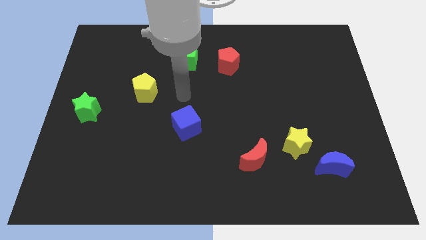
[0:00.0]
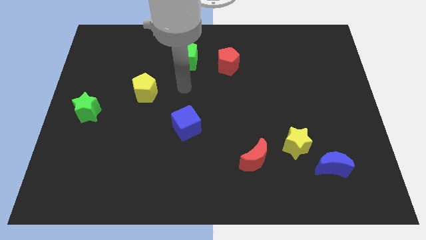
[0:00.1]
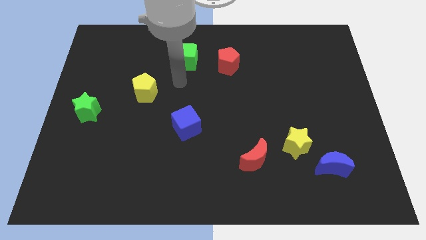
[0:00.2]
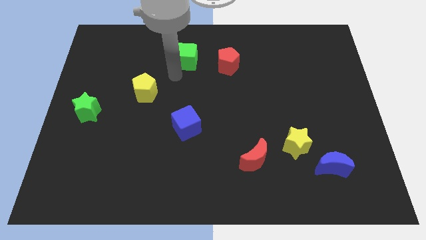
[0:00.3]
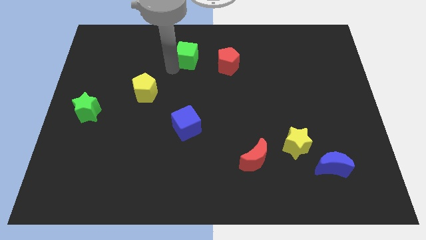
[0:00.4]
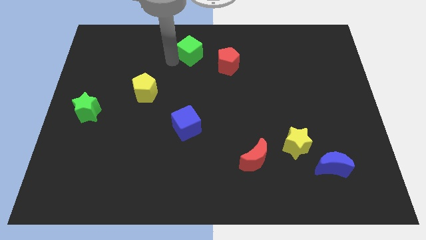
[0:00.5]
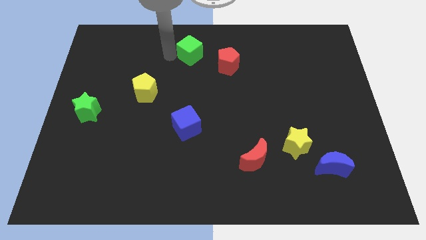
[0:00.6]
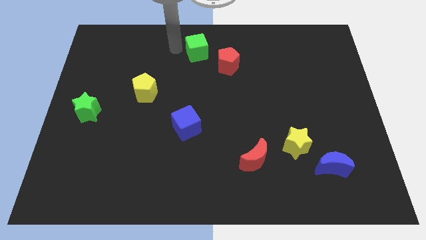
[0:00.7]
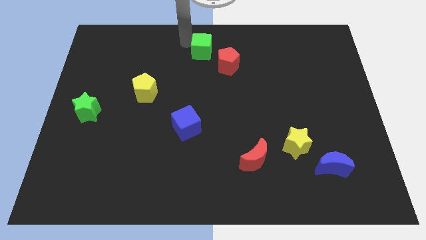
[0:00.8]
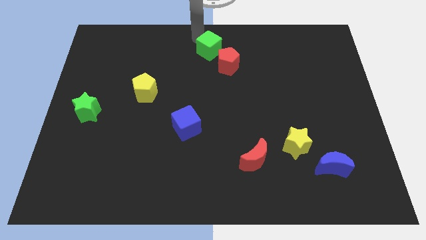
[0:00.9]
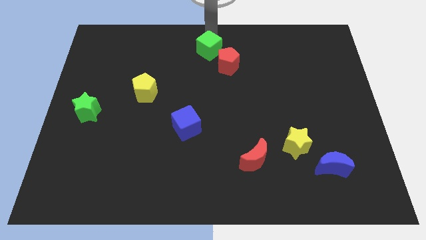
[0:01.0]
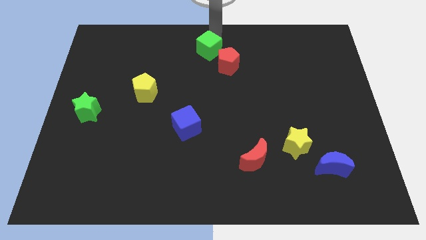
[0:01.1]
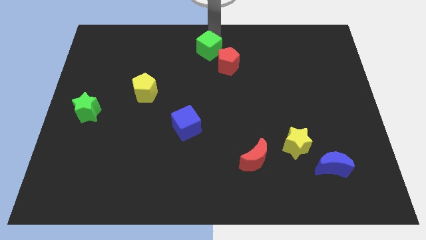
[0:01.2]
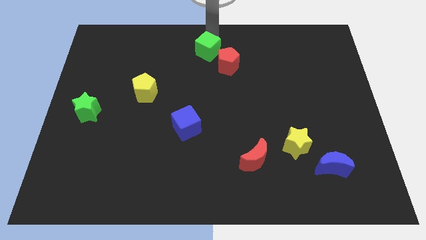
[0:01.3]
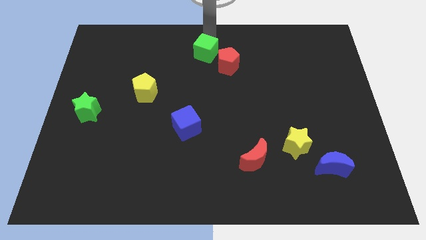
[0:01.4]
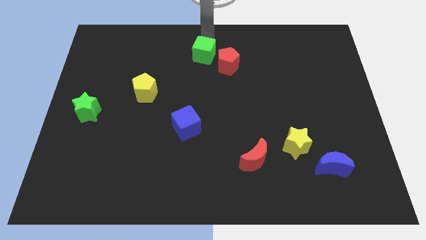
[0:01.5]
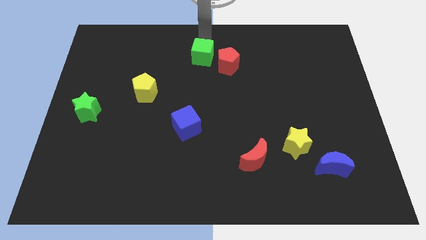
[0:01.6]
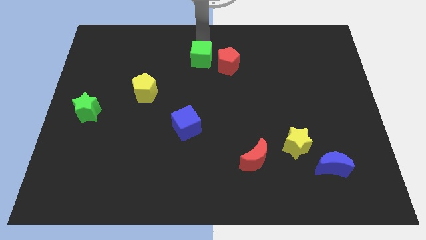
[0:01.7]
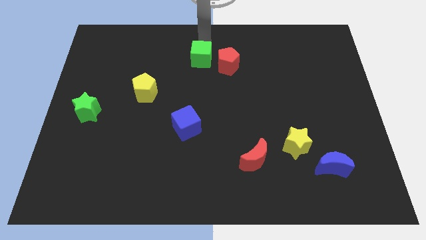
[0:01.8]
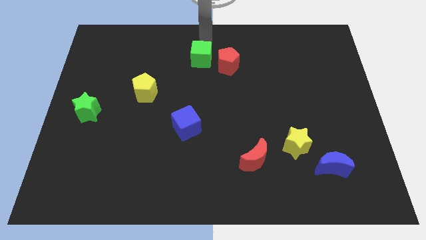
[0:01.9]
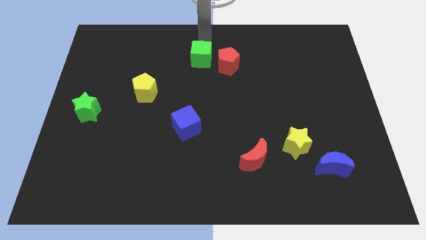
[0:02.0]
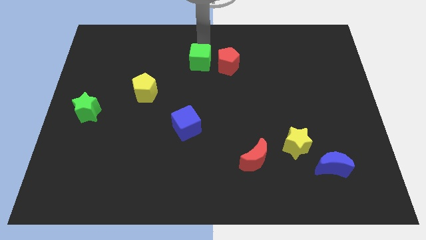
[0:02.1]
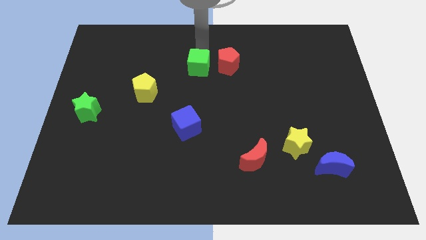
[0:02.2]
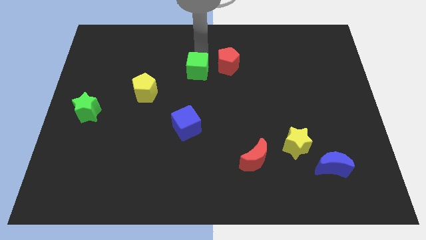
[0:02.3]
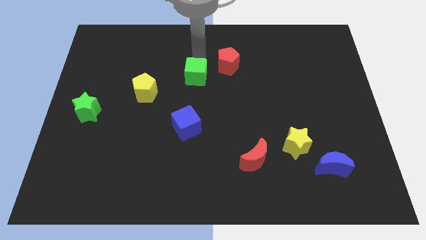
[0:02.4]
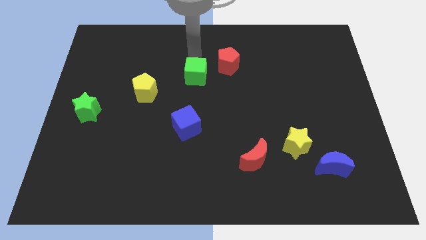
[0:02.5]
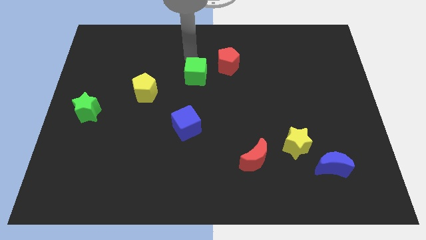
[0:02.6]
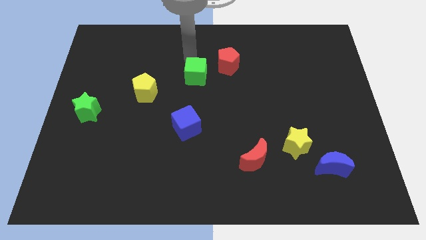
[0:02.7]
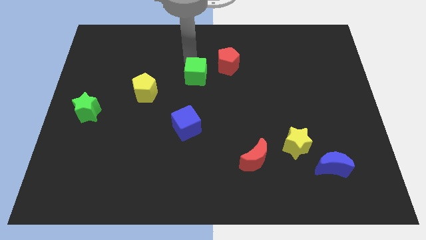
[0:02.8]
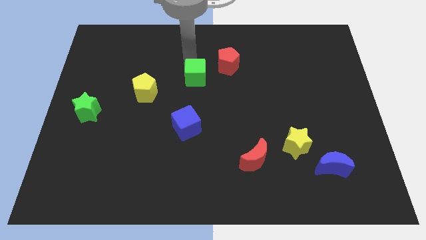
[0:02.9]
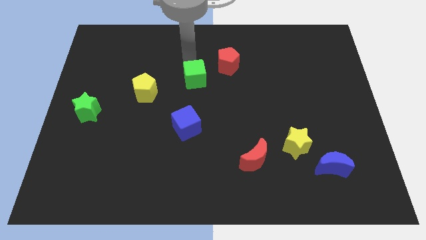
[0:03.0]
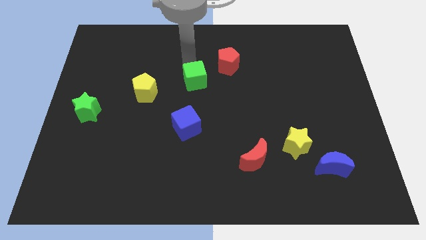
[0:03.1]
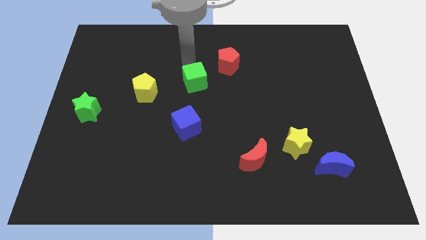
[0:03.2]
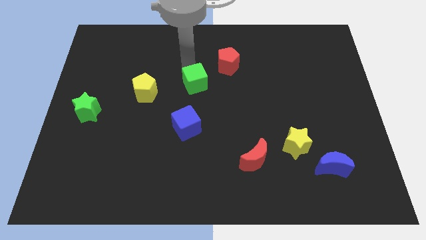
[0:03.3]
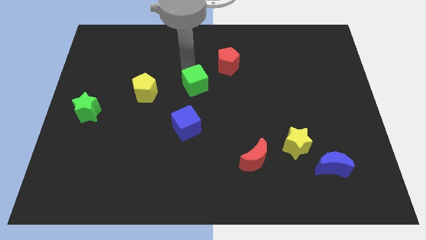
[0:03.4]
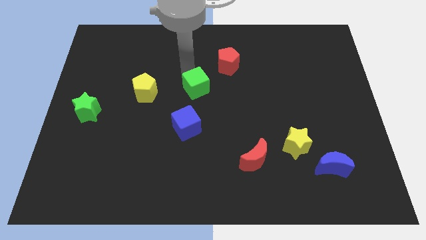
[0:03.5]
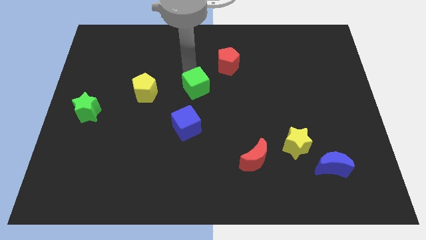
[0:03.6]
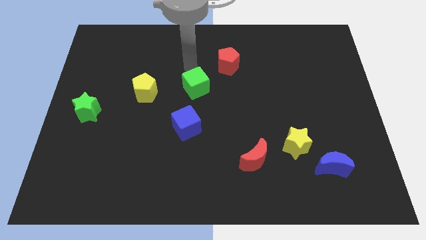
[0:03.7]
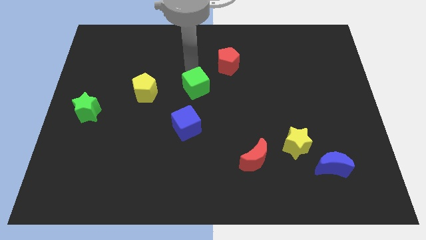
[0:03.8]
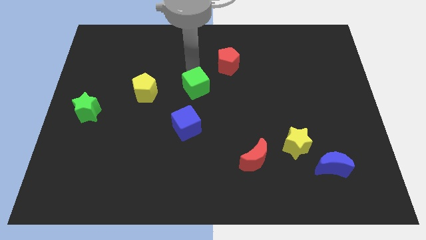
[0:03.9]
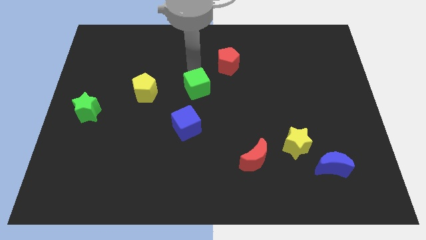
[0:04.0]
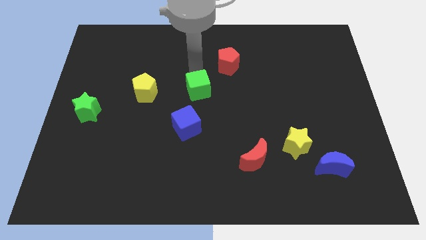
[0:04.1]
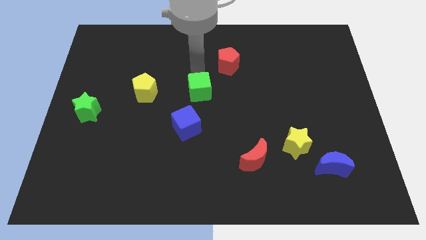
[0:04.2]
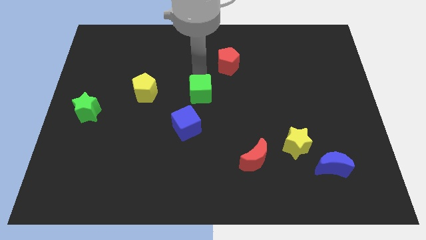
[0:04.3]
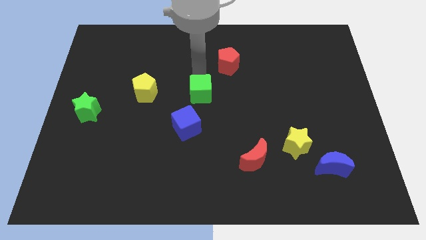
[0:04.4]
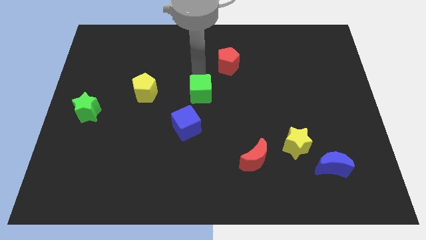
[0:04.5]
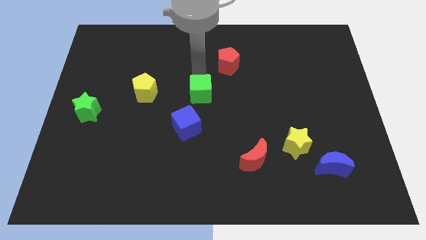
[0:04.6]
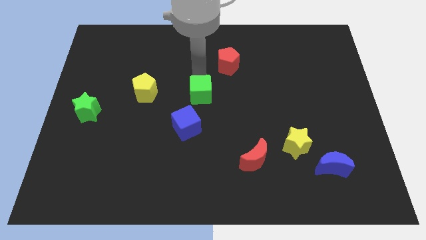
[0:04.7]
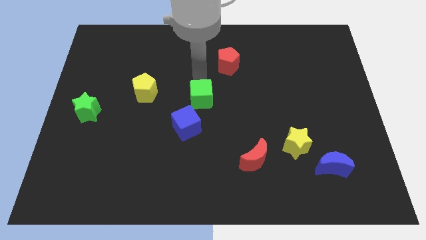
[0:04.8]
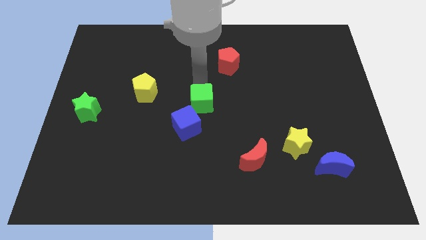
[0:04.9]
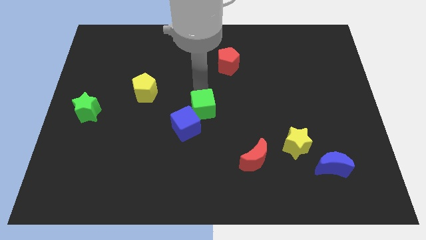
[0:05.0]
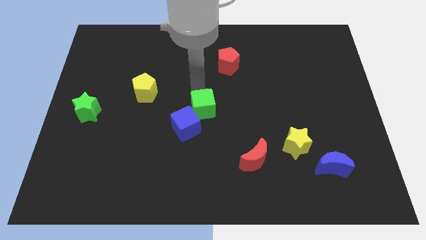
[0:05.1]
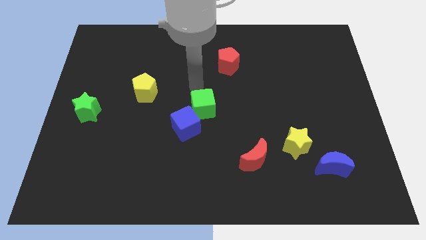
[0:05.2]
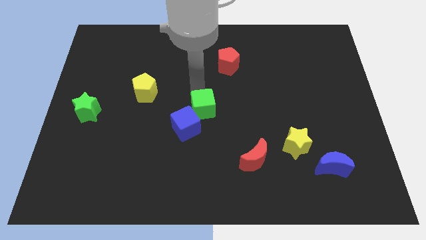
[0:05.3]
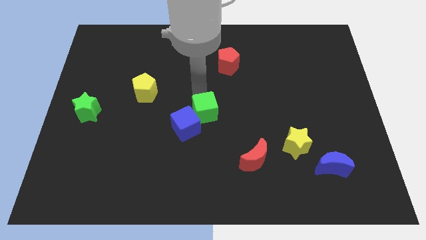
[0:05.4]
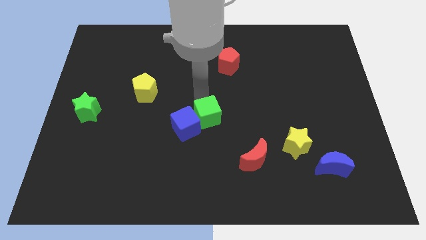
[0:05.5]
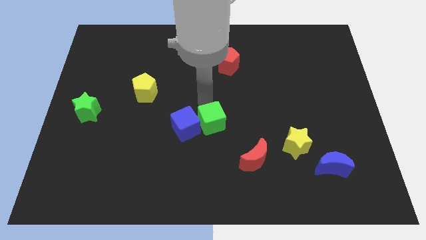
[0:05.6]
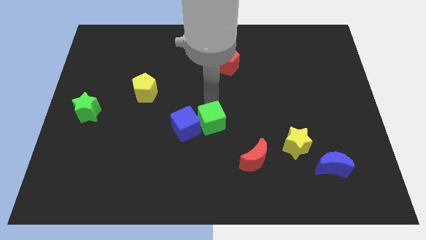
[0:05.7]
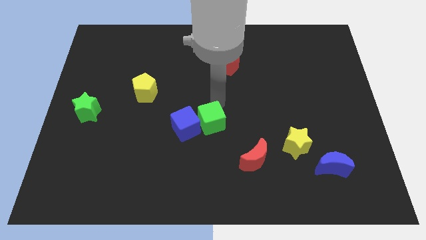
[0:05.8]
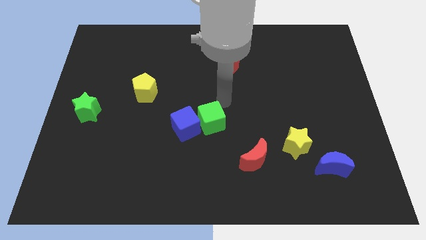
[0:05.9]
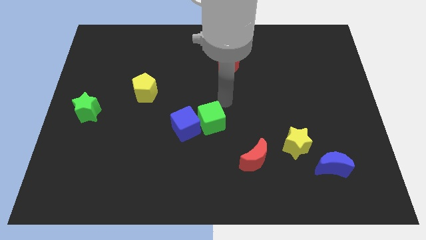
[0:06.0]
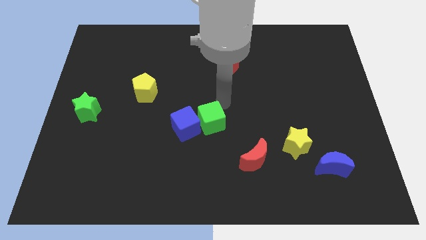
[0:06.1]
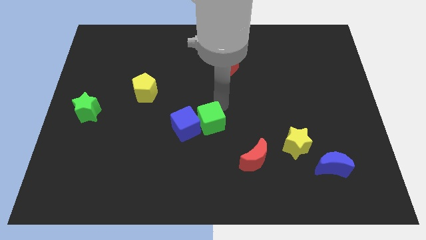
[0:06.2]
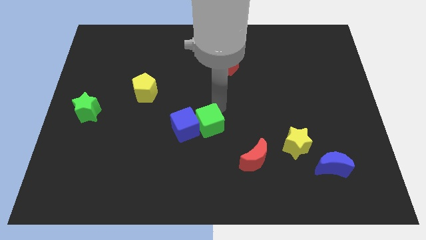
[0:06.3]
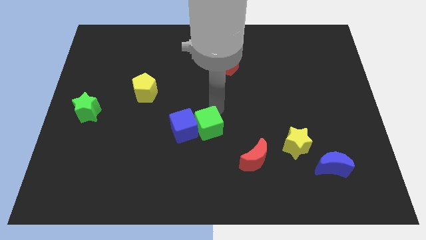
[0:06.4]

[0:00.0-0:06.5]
push the green cube downwards

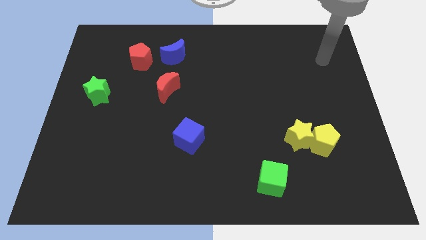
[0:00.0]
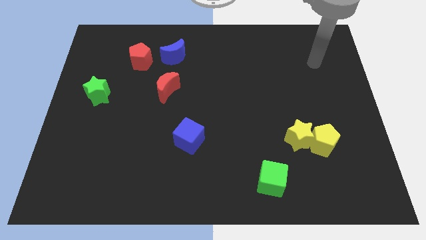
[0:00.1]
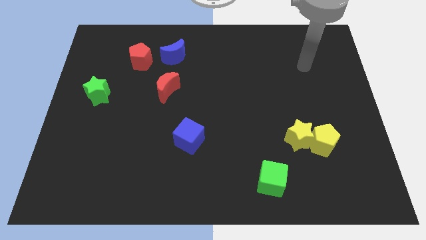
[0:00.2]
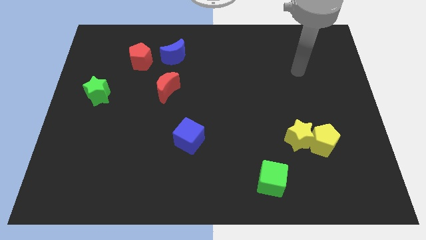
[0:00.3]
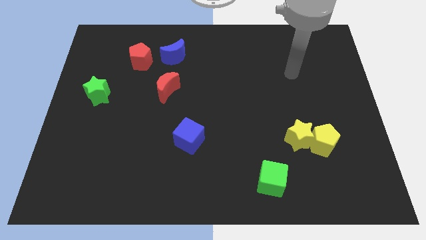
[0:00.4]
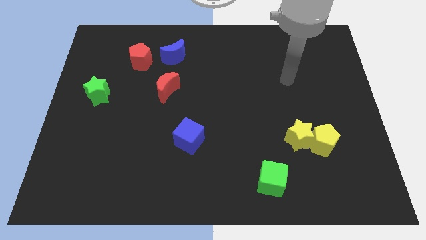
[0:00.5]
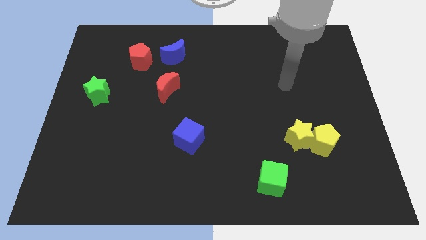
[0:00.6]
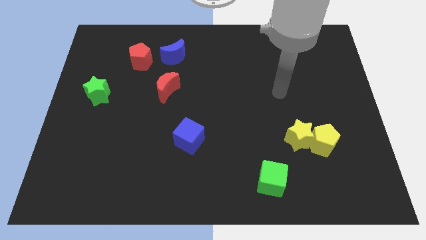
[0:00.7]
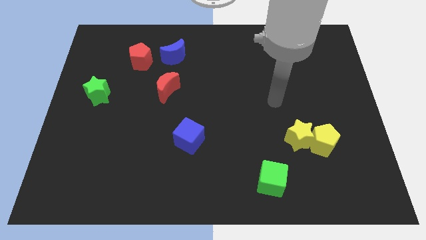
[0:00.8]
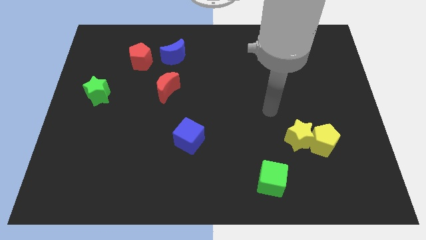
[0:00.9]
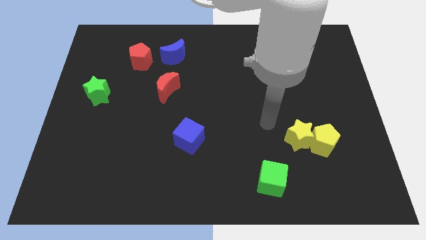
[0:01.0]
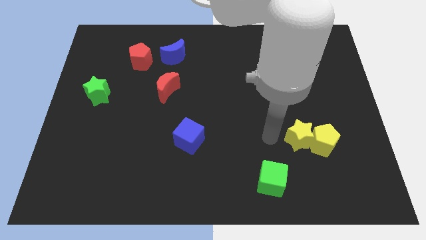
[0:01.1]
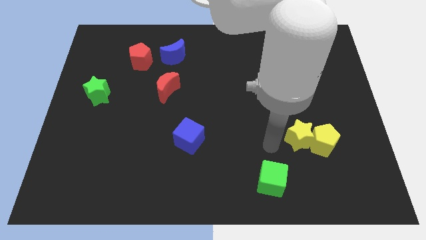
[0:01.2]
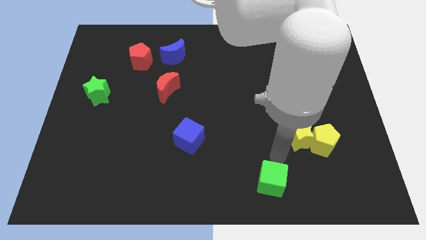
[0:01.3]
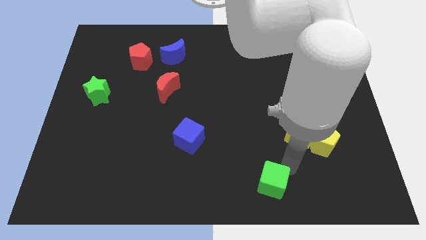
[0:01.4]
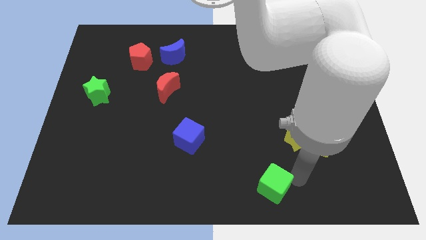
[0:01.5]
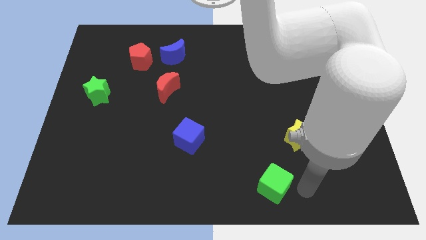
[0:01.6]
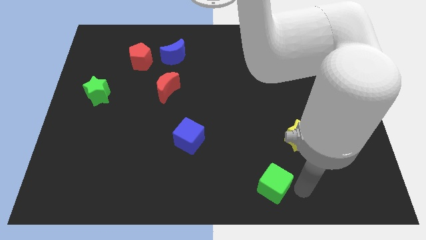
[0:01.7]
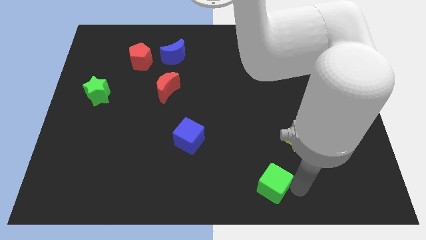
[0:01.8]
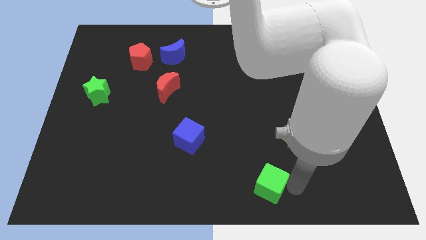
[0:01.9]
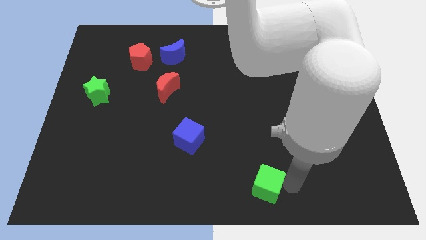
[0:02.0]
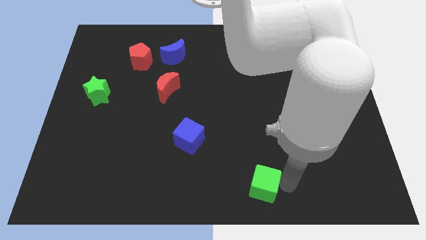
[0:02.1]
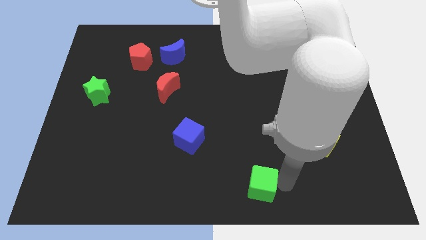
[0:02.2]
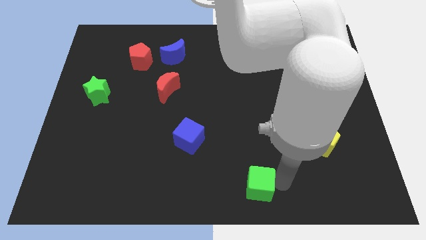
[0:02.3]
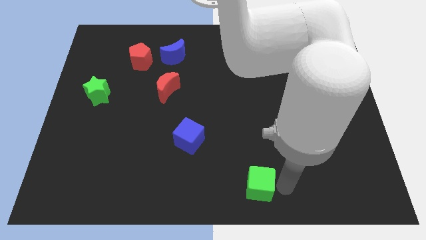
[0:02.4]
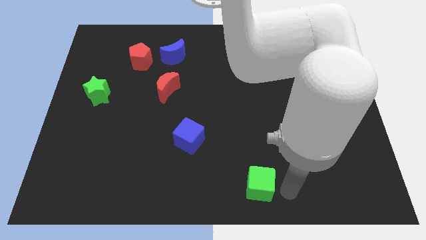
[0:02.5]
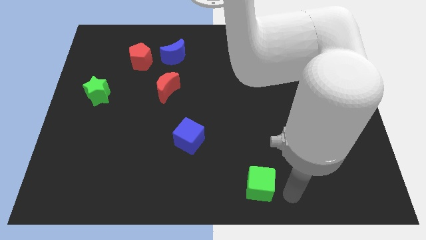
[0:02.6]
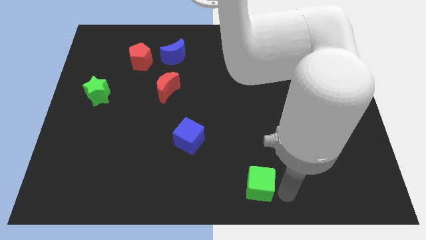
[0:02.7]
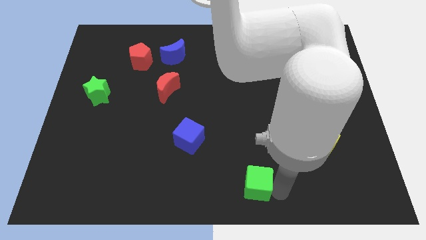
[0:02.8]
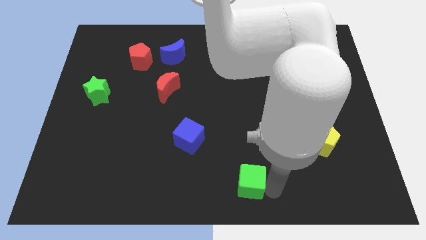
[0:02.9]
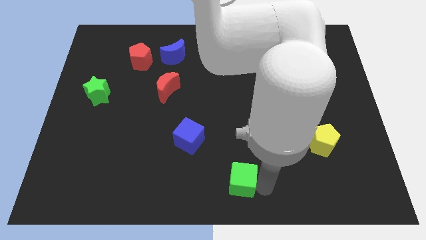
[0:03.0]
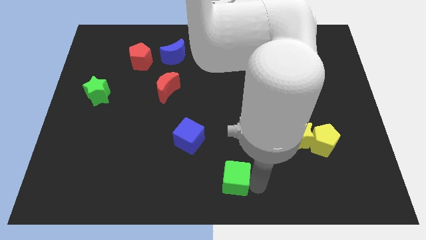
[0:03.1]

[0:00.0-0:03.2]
slide the green cube to the left a little
